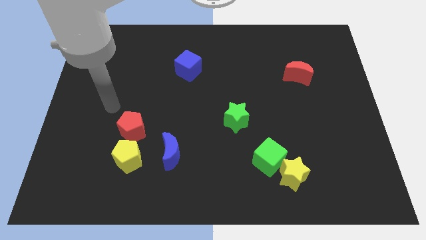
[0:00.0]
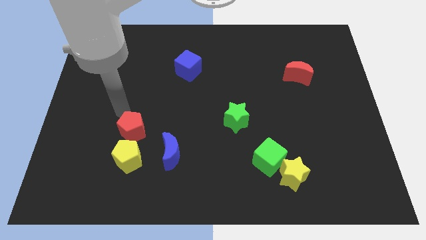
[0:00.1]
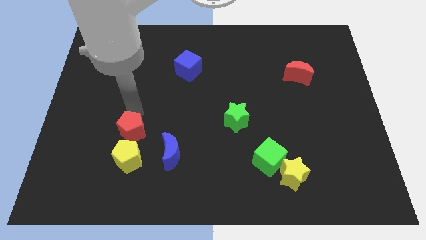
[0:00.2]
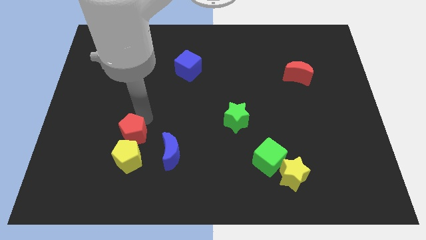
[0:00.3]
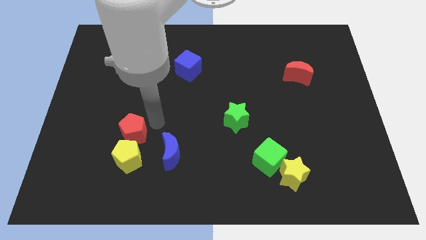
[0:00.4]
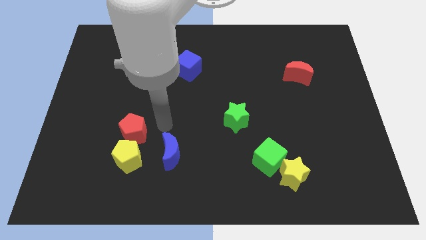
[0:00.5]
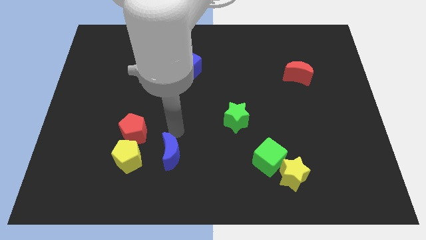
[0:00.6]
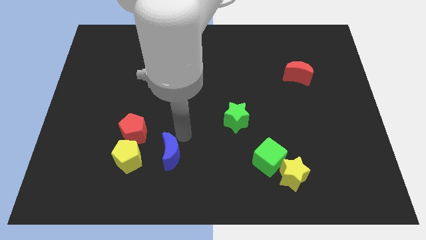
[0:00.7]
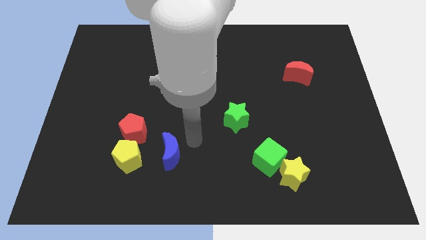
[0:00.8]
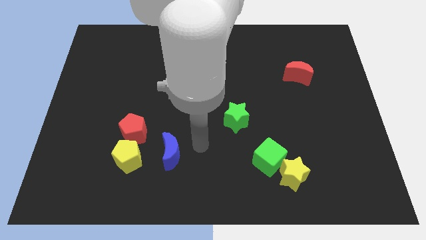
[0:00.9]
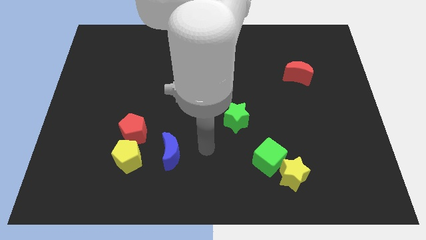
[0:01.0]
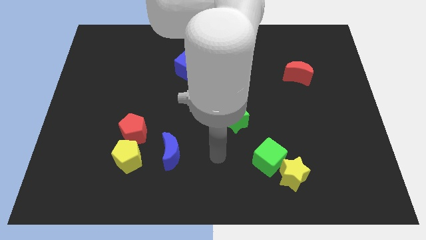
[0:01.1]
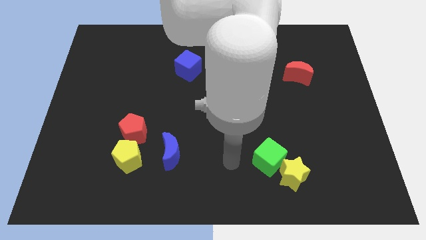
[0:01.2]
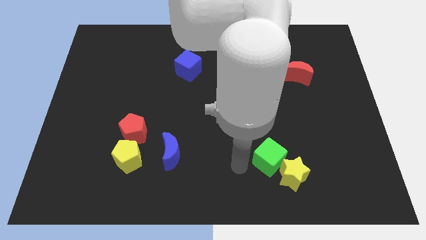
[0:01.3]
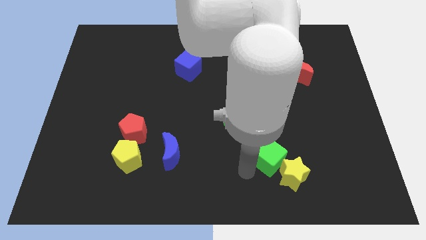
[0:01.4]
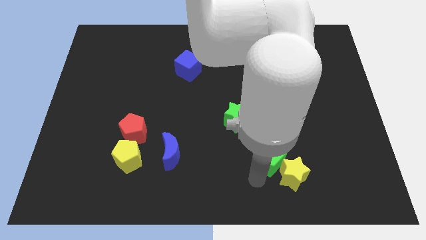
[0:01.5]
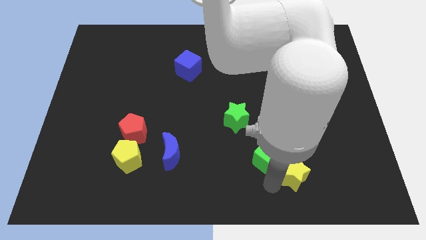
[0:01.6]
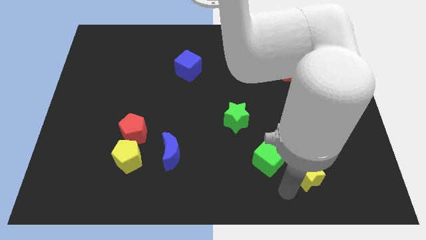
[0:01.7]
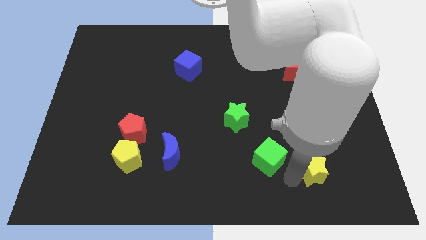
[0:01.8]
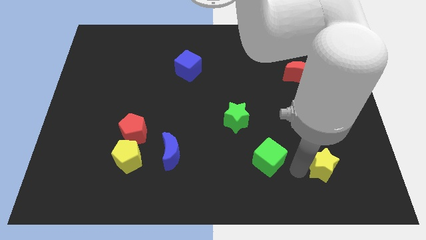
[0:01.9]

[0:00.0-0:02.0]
move the green cube away from the yellow star

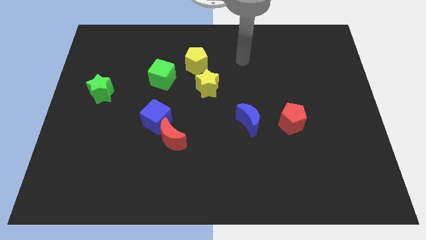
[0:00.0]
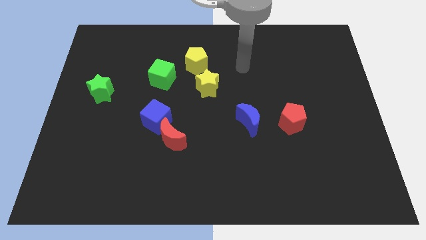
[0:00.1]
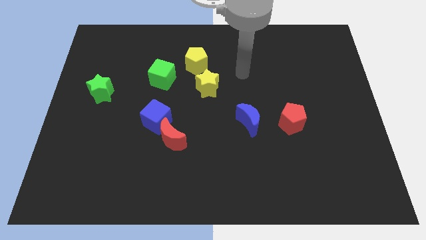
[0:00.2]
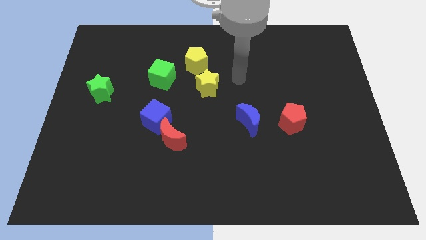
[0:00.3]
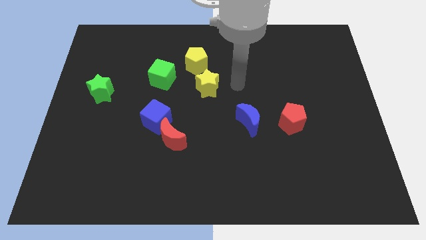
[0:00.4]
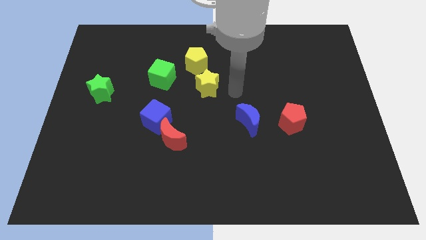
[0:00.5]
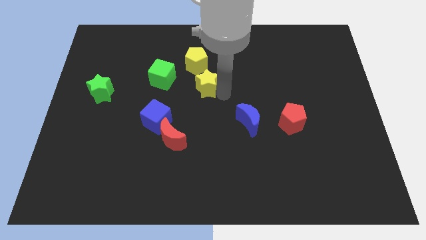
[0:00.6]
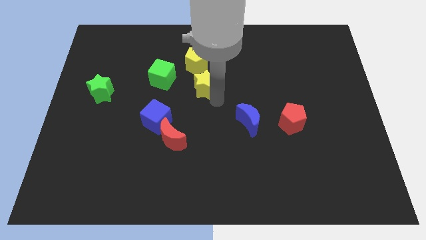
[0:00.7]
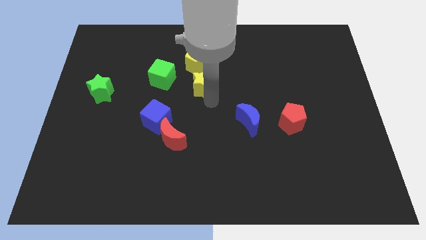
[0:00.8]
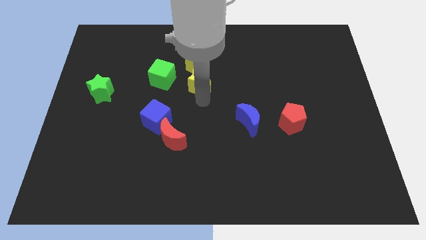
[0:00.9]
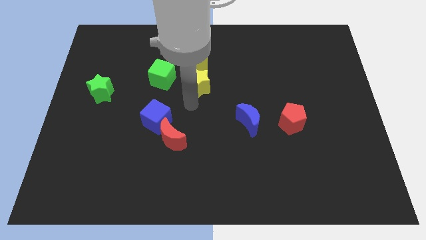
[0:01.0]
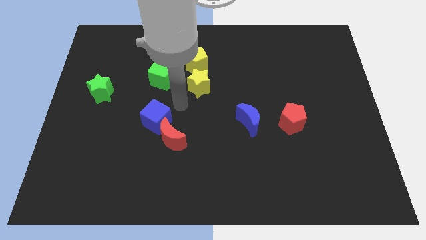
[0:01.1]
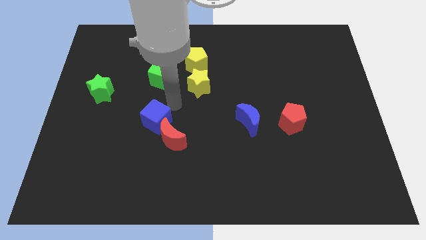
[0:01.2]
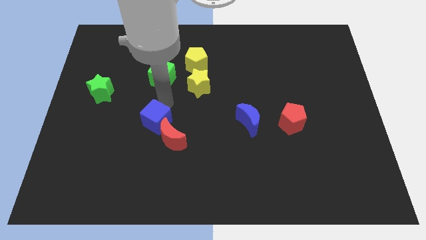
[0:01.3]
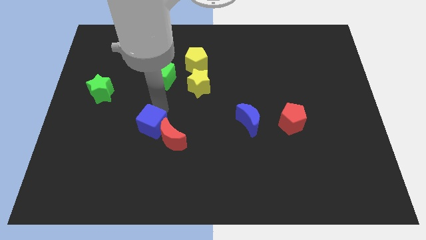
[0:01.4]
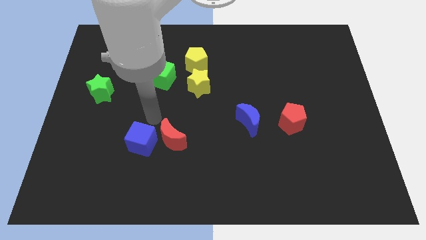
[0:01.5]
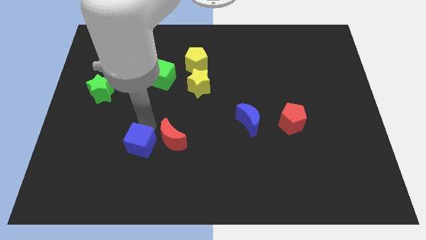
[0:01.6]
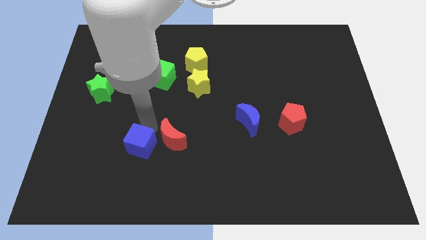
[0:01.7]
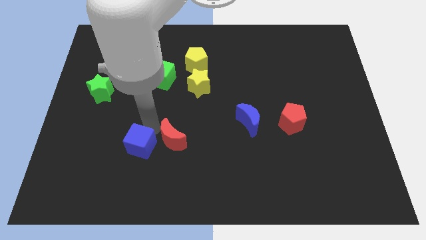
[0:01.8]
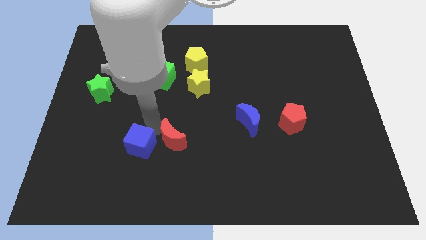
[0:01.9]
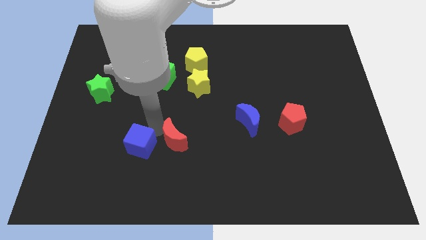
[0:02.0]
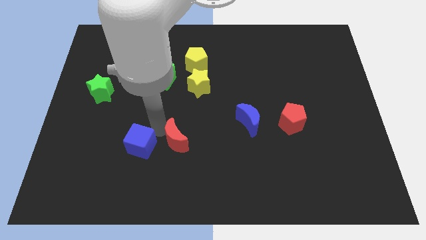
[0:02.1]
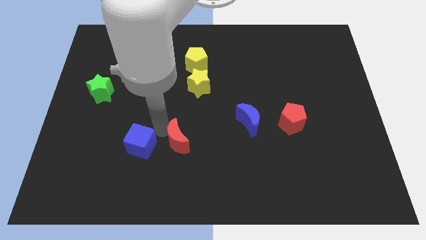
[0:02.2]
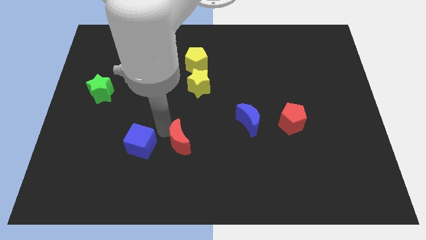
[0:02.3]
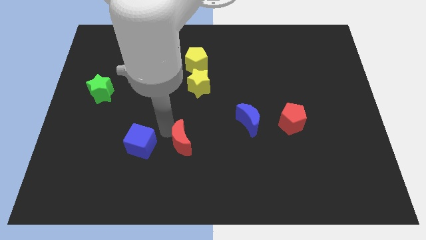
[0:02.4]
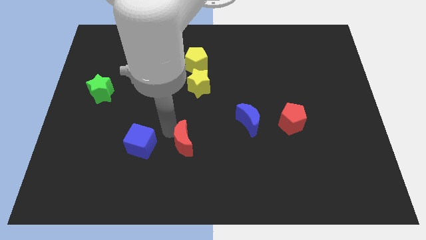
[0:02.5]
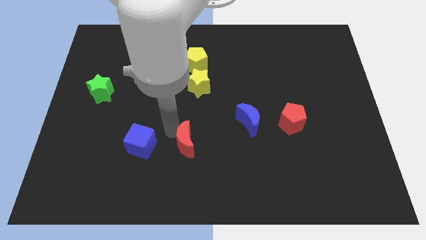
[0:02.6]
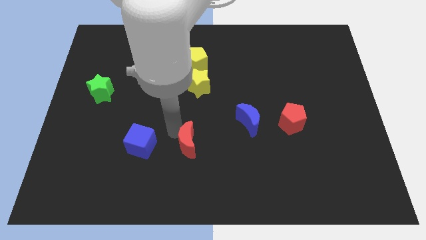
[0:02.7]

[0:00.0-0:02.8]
move the red moon away from the blue cube

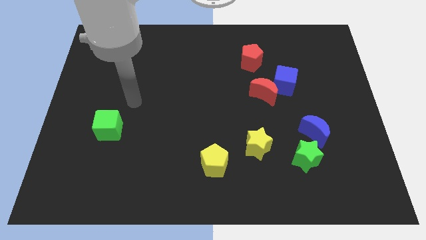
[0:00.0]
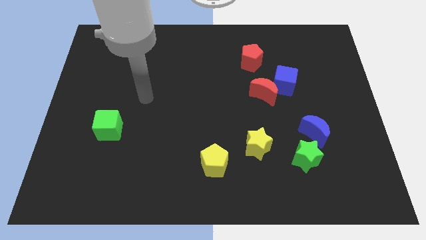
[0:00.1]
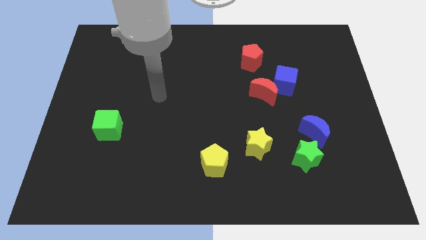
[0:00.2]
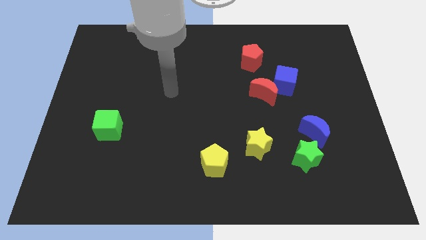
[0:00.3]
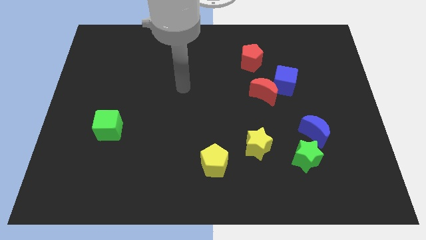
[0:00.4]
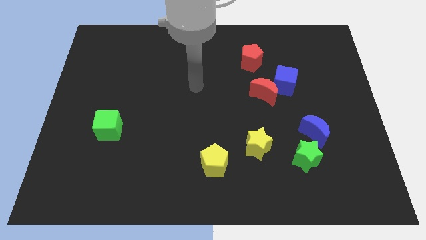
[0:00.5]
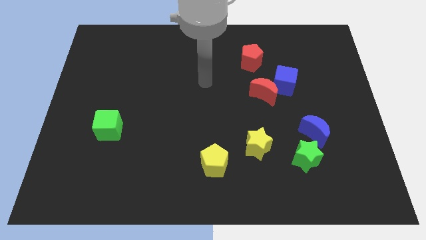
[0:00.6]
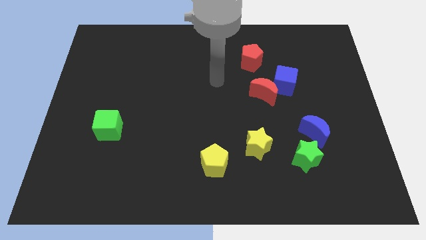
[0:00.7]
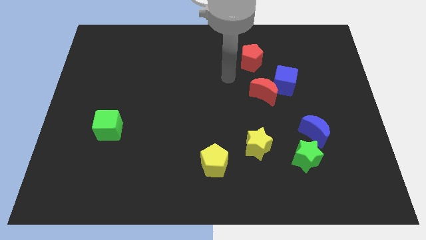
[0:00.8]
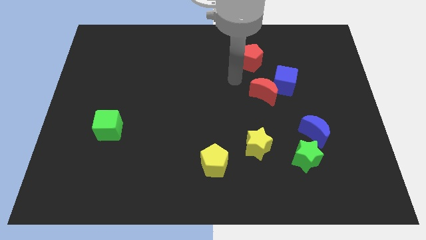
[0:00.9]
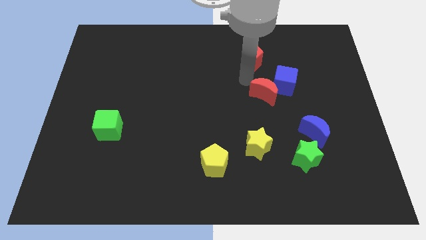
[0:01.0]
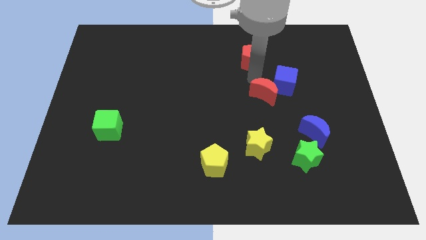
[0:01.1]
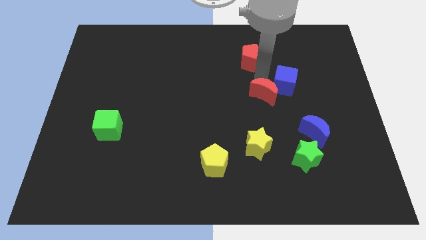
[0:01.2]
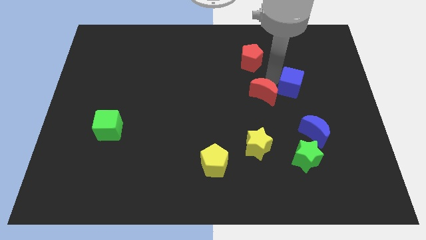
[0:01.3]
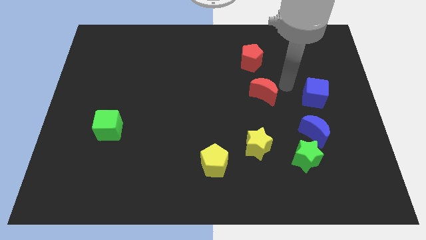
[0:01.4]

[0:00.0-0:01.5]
pull the red moon apart from the blue cube

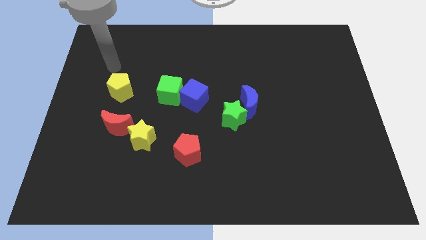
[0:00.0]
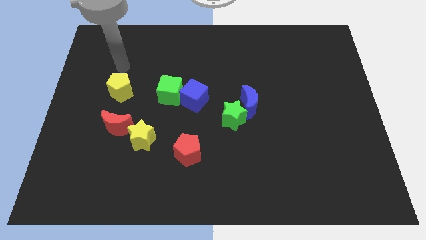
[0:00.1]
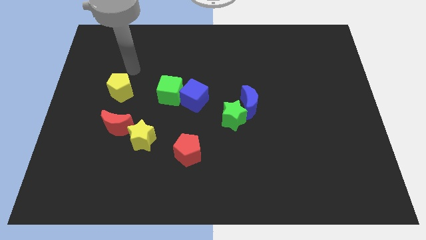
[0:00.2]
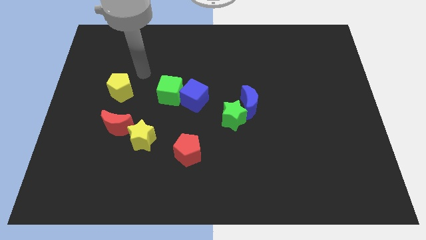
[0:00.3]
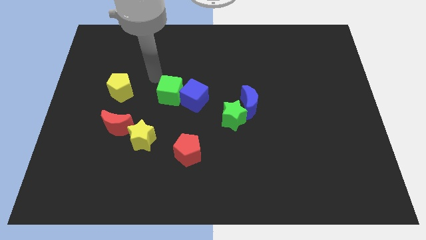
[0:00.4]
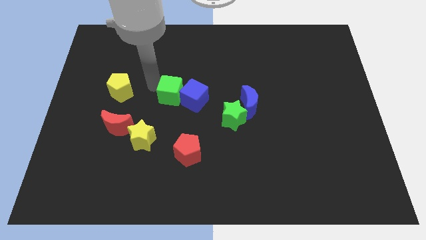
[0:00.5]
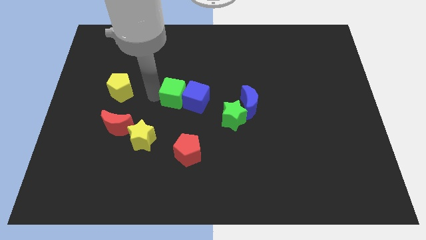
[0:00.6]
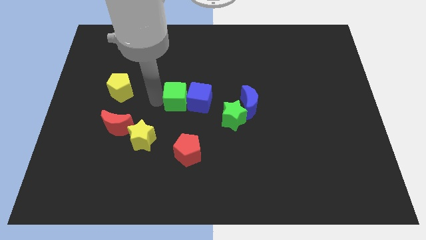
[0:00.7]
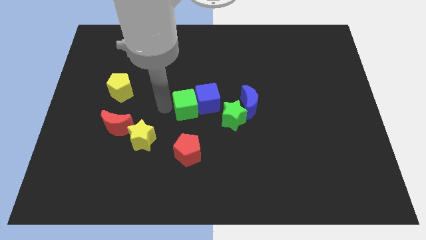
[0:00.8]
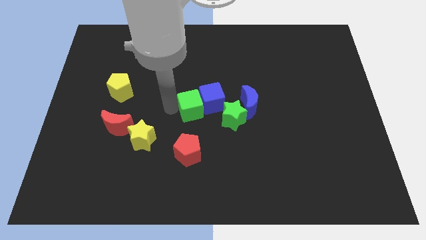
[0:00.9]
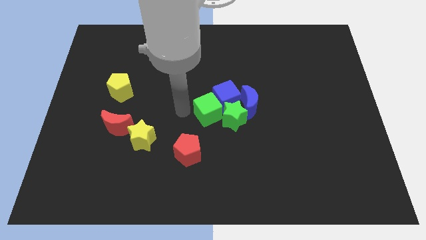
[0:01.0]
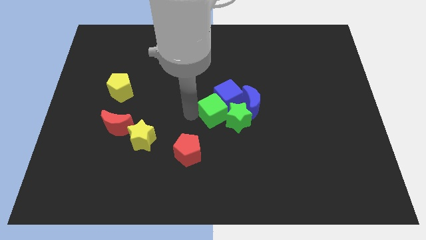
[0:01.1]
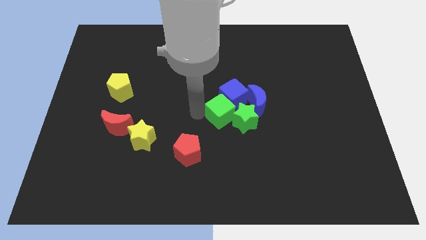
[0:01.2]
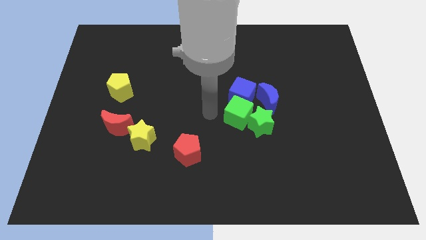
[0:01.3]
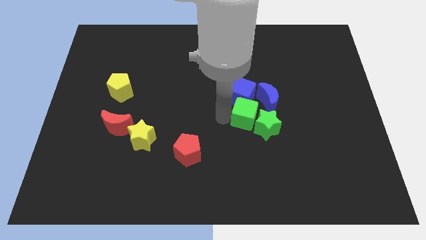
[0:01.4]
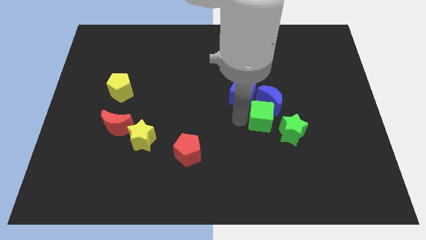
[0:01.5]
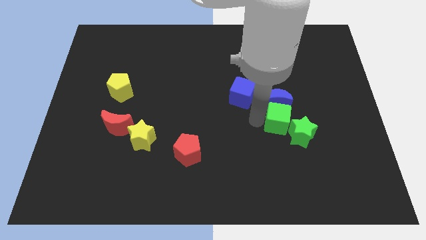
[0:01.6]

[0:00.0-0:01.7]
move the blue moon away from the green star

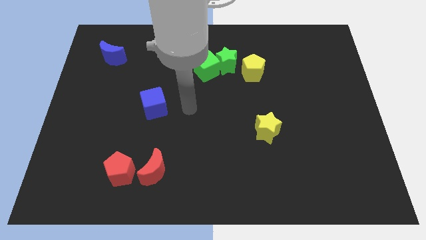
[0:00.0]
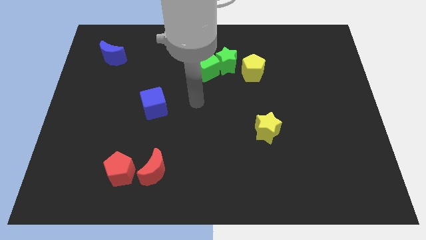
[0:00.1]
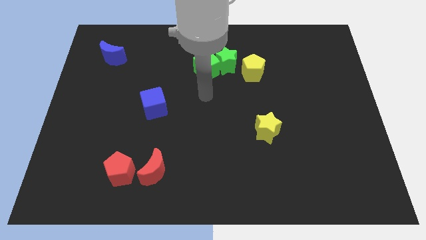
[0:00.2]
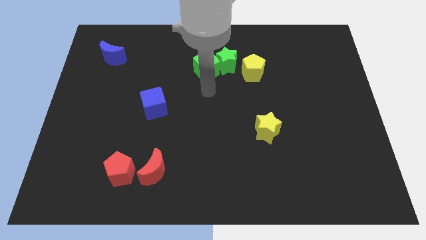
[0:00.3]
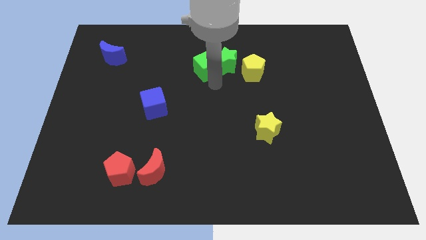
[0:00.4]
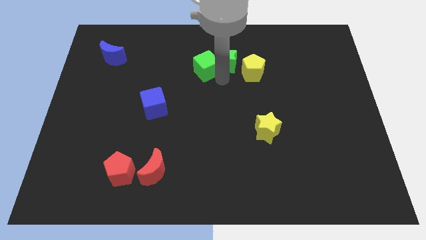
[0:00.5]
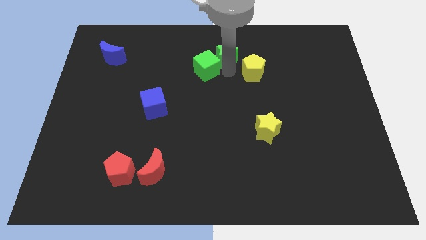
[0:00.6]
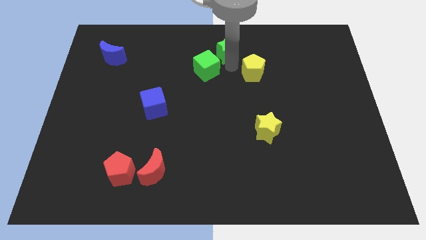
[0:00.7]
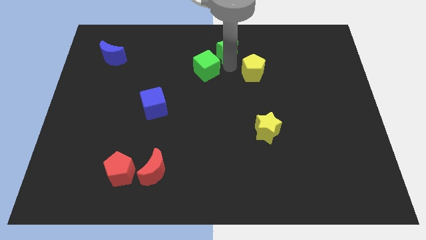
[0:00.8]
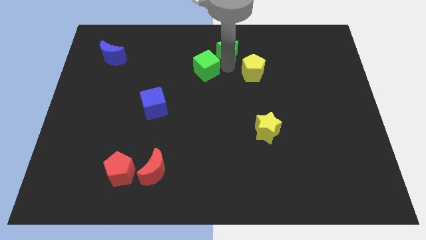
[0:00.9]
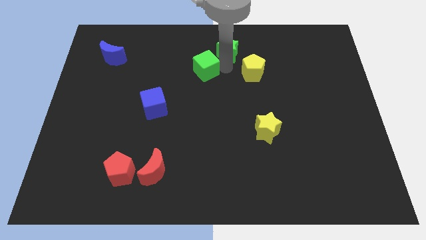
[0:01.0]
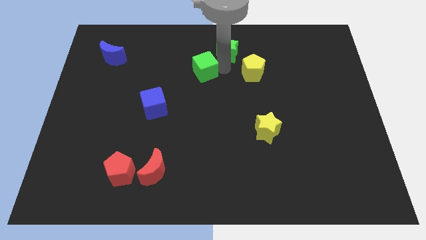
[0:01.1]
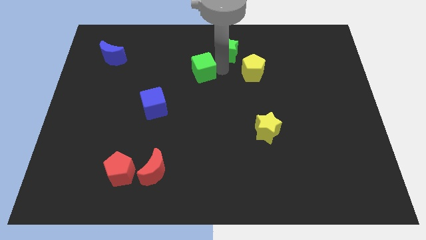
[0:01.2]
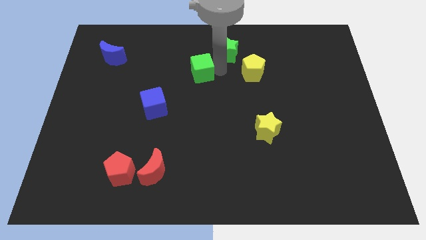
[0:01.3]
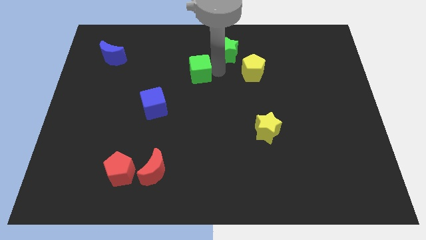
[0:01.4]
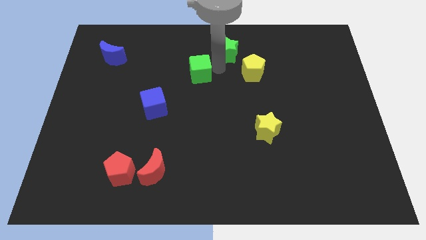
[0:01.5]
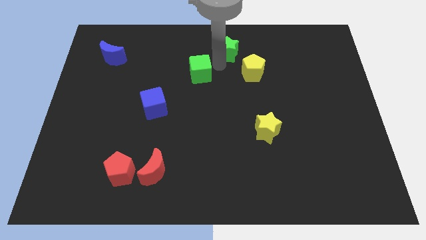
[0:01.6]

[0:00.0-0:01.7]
move the green cube away from the green star
